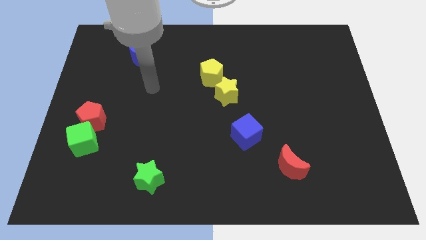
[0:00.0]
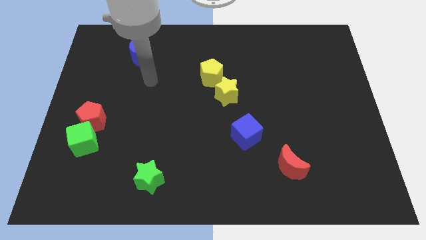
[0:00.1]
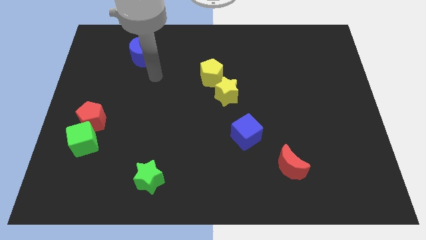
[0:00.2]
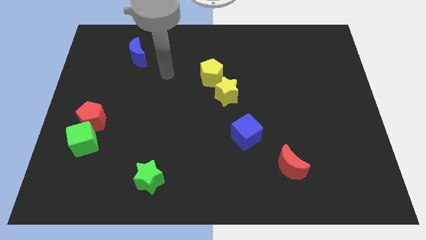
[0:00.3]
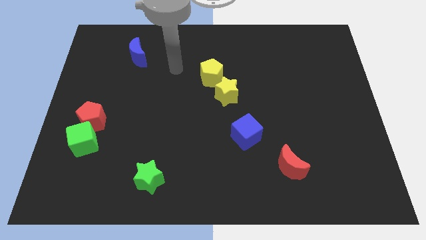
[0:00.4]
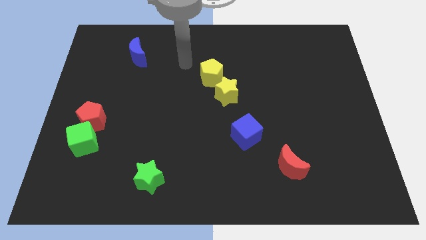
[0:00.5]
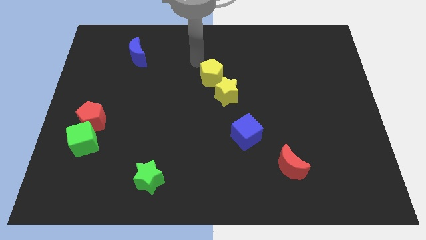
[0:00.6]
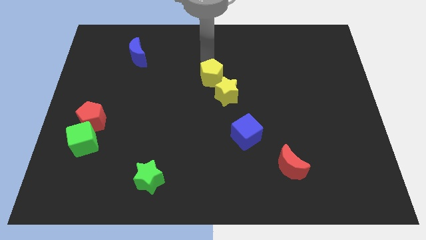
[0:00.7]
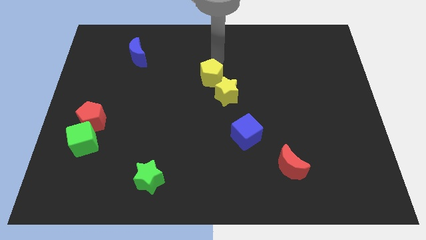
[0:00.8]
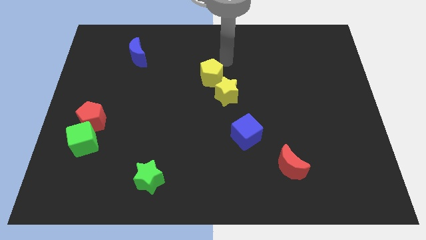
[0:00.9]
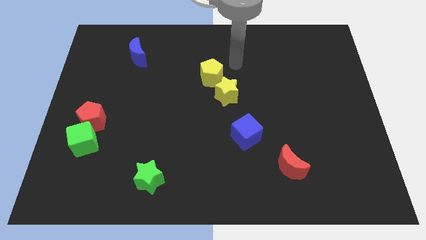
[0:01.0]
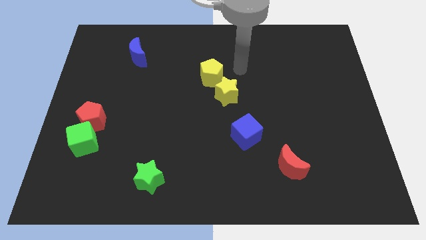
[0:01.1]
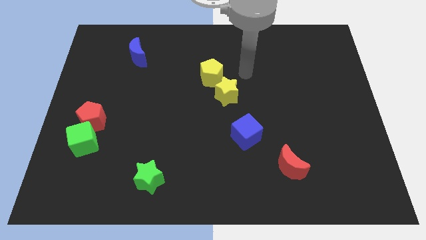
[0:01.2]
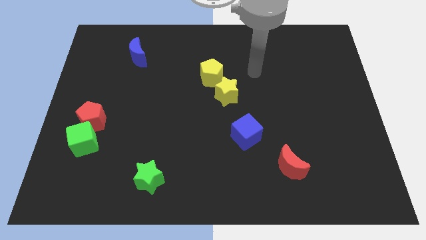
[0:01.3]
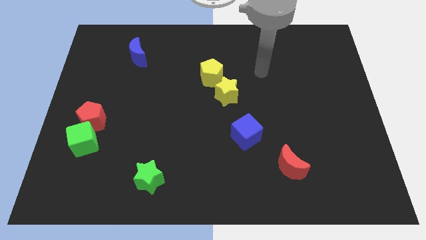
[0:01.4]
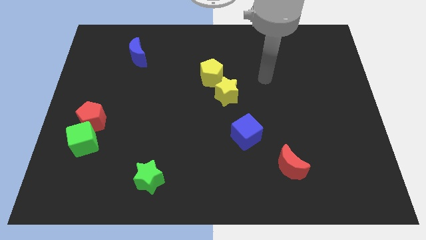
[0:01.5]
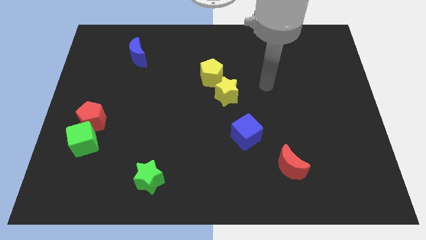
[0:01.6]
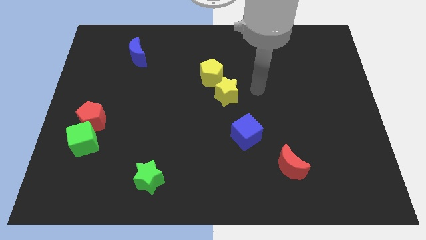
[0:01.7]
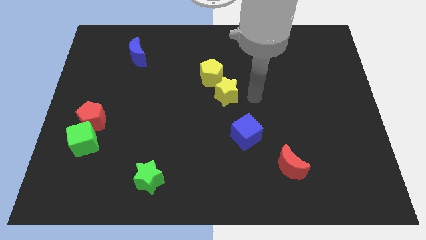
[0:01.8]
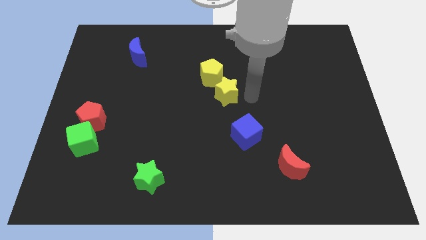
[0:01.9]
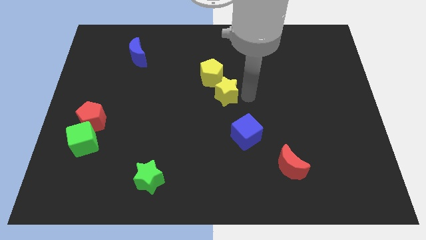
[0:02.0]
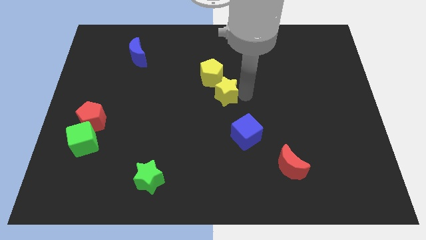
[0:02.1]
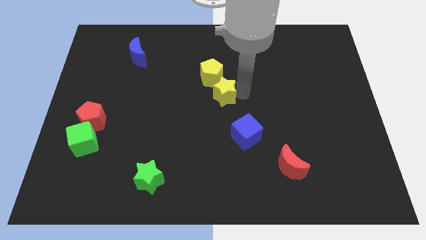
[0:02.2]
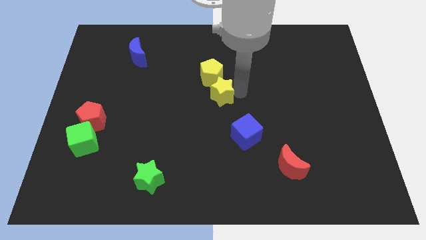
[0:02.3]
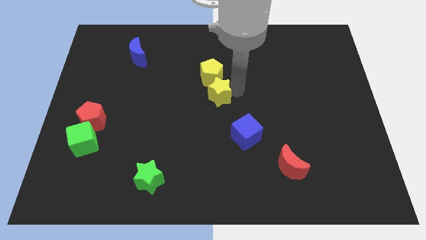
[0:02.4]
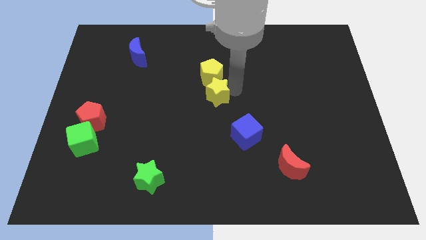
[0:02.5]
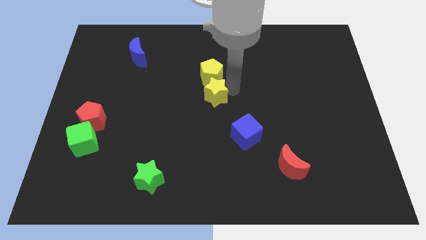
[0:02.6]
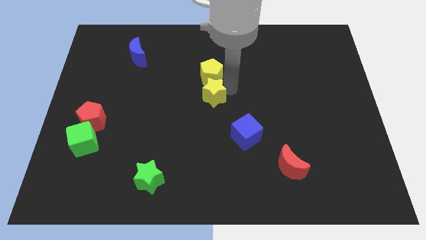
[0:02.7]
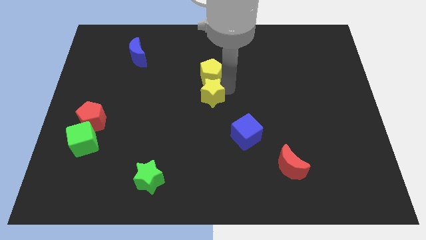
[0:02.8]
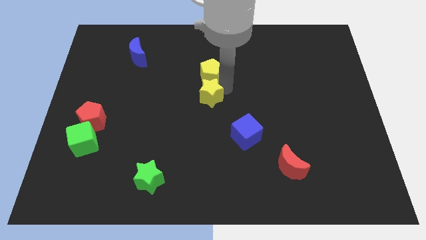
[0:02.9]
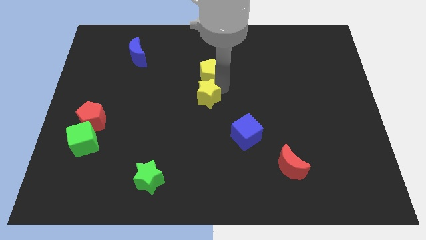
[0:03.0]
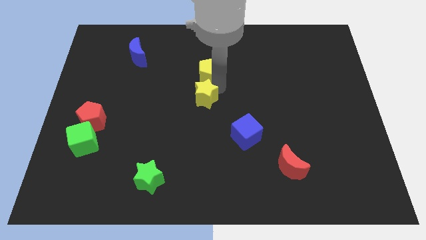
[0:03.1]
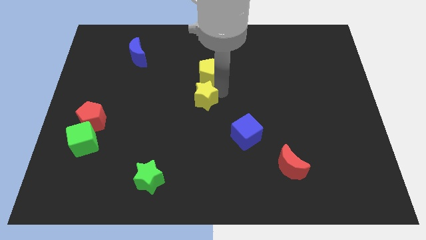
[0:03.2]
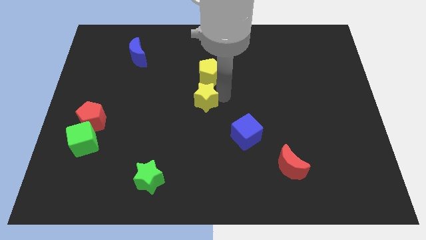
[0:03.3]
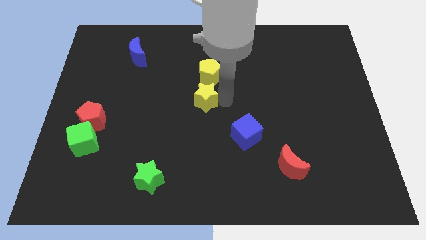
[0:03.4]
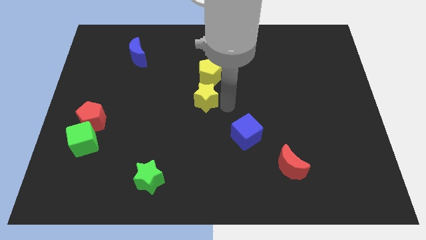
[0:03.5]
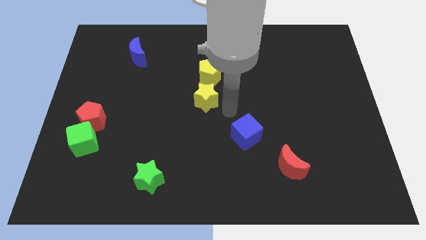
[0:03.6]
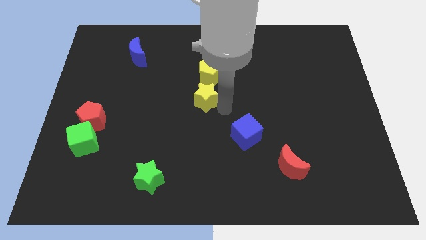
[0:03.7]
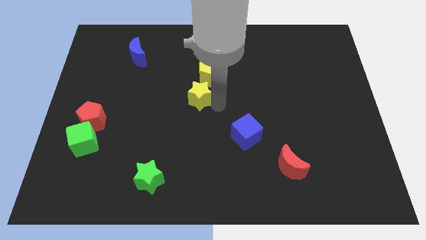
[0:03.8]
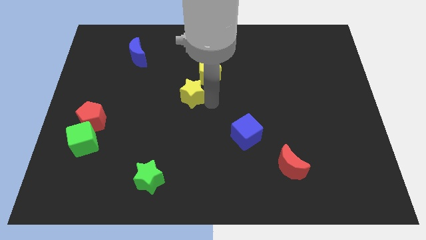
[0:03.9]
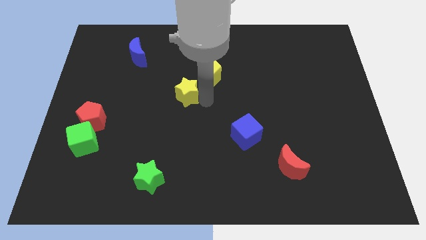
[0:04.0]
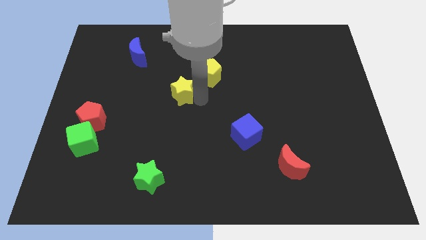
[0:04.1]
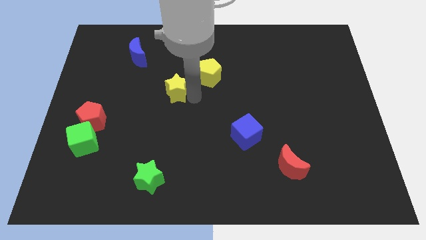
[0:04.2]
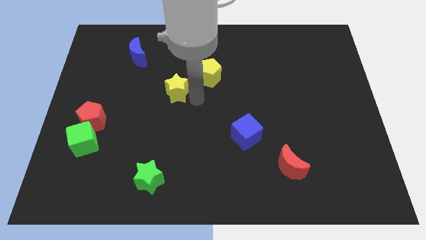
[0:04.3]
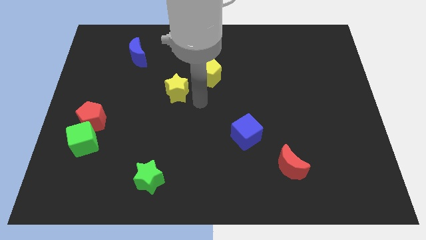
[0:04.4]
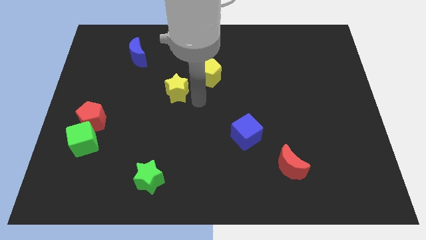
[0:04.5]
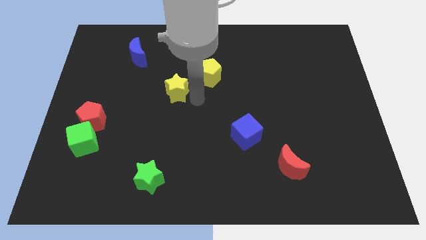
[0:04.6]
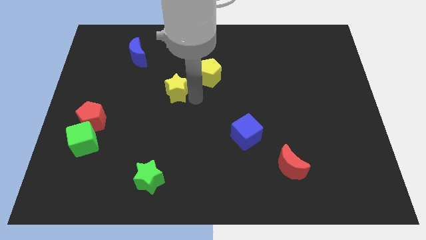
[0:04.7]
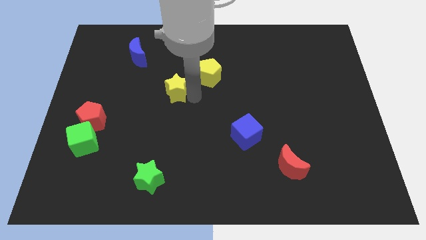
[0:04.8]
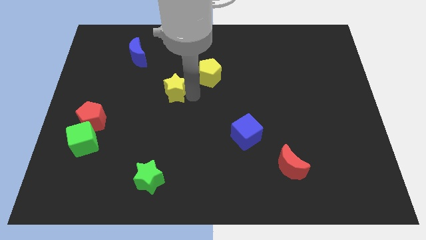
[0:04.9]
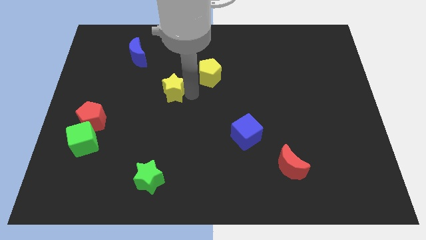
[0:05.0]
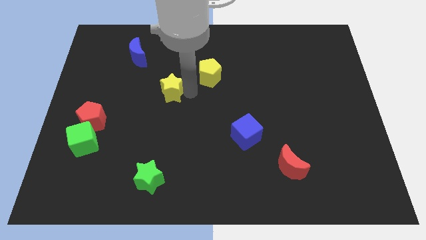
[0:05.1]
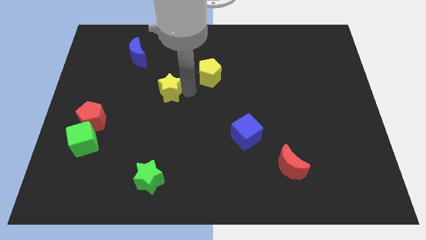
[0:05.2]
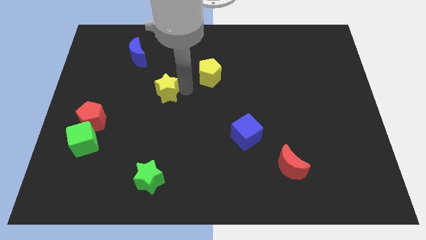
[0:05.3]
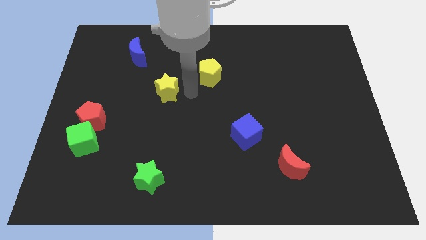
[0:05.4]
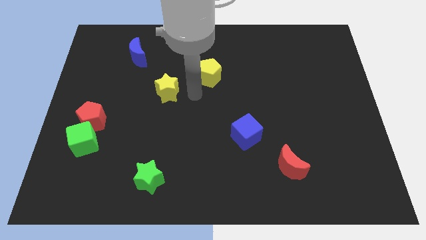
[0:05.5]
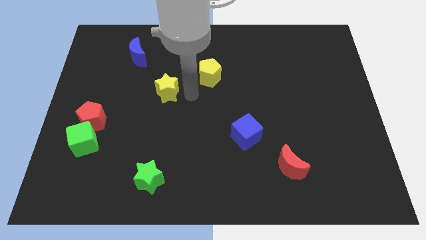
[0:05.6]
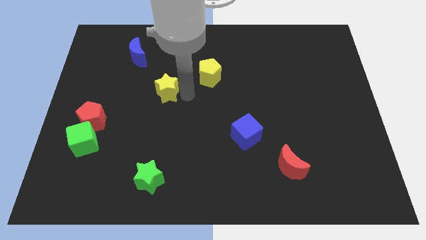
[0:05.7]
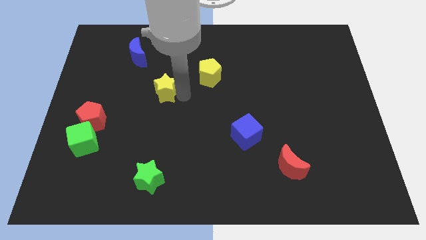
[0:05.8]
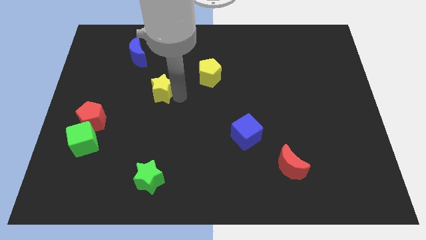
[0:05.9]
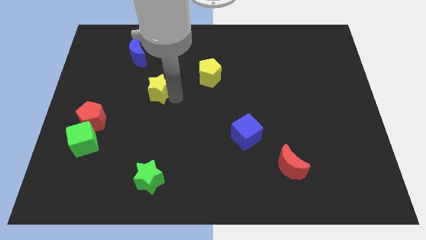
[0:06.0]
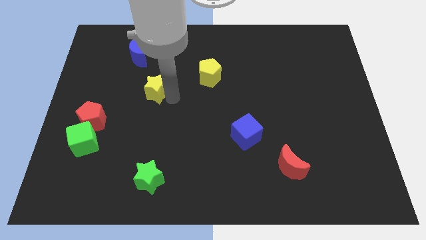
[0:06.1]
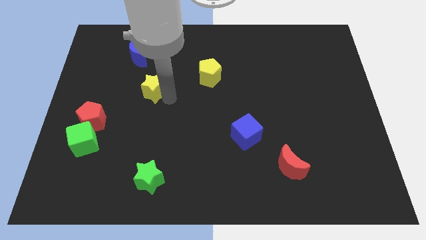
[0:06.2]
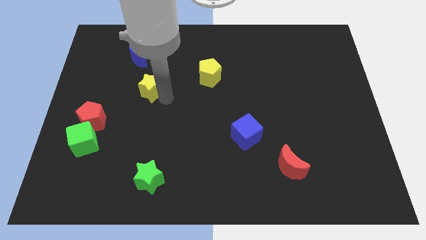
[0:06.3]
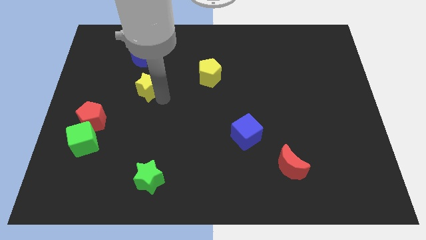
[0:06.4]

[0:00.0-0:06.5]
push the yellow star to the bottom side of the blue moon
